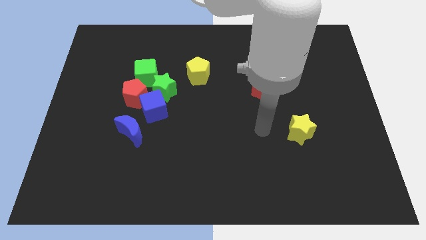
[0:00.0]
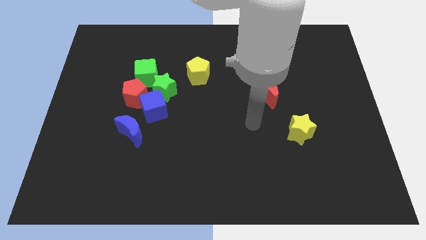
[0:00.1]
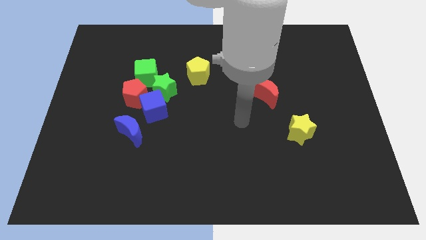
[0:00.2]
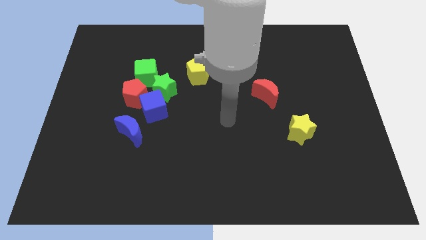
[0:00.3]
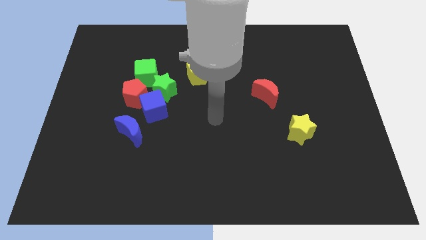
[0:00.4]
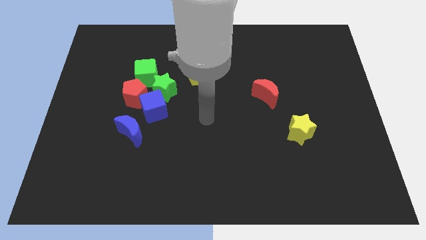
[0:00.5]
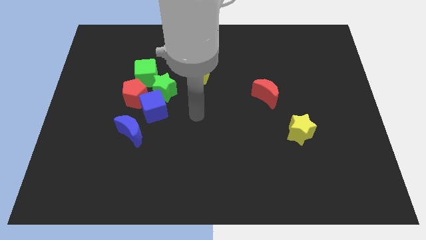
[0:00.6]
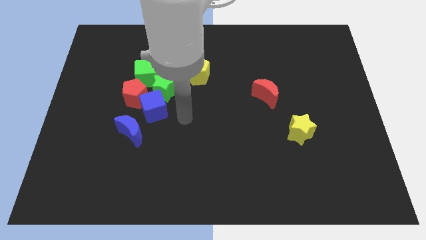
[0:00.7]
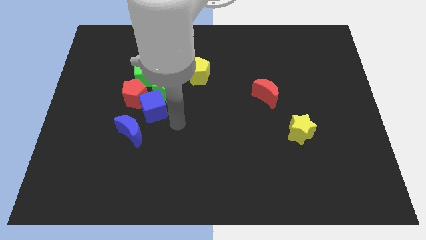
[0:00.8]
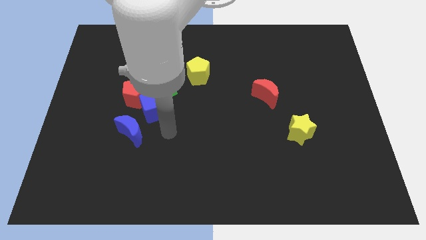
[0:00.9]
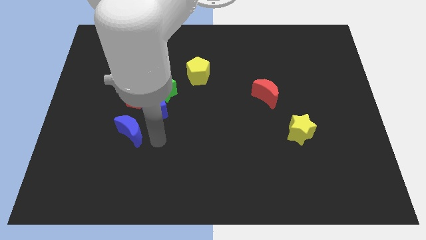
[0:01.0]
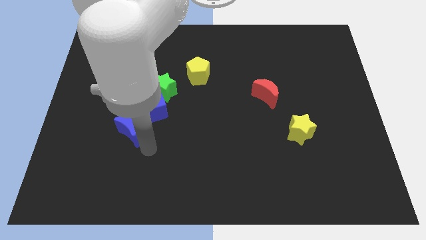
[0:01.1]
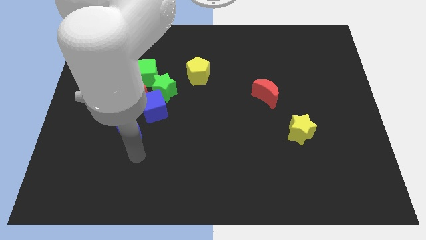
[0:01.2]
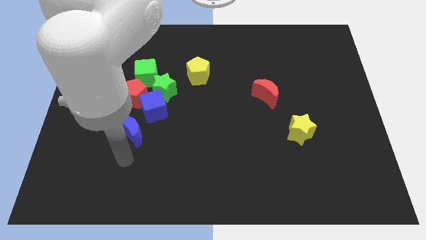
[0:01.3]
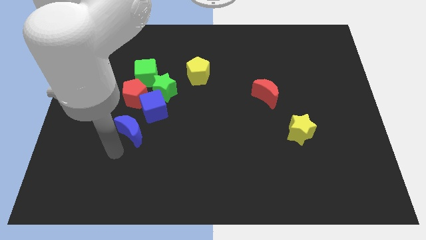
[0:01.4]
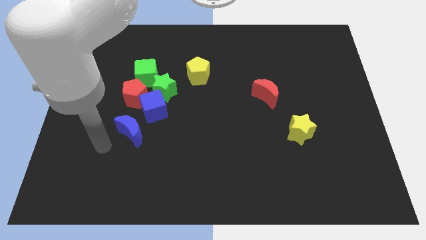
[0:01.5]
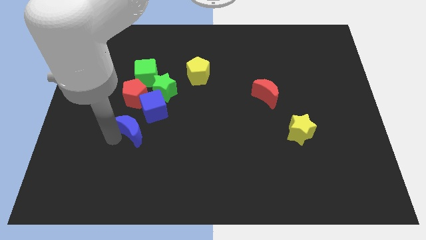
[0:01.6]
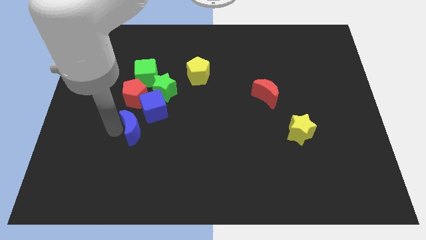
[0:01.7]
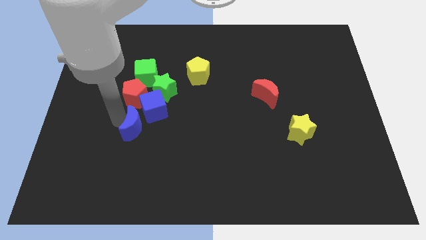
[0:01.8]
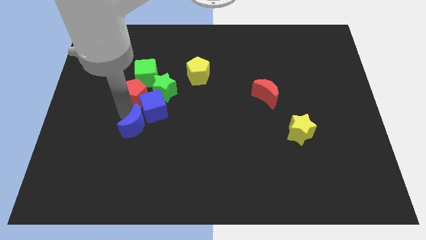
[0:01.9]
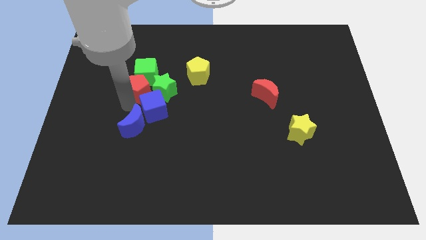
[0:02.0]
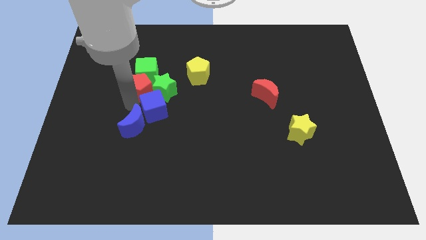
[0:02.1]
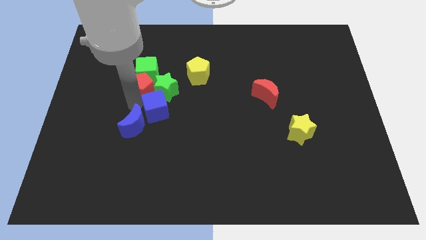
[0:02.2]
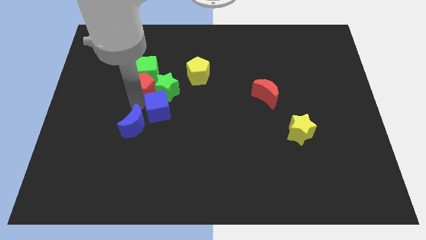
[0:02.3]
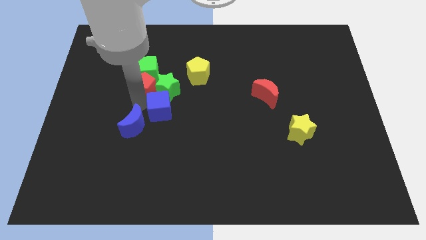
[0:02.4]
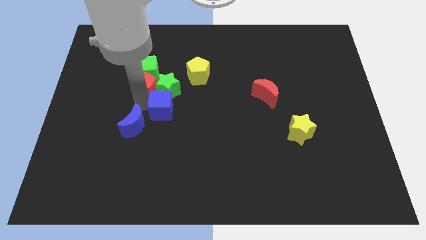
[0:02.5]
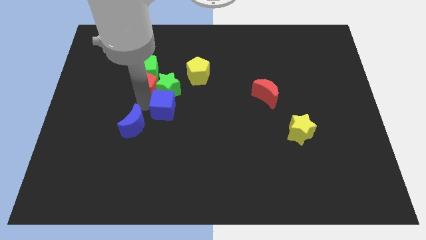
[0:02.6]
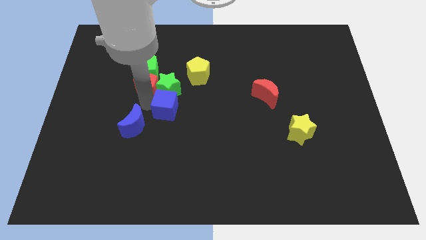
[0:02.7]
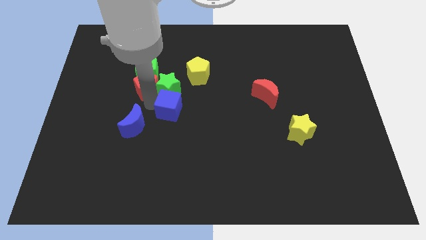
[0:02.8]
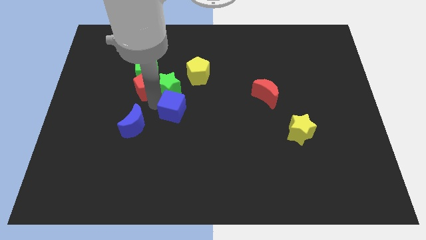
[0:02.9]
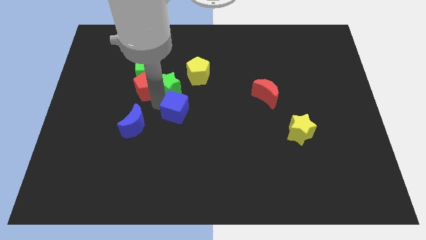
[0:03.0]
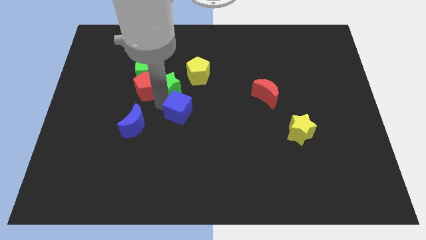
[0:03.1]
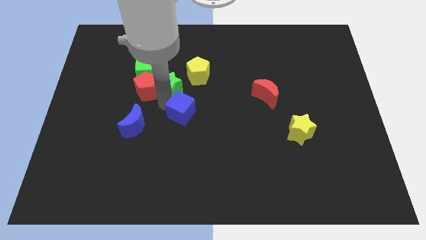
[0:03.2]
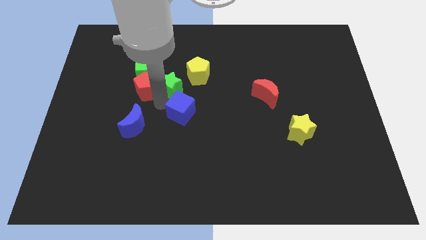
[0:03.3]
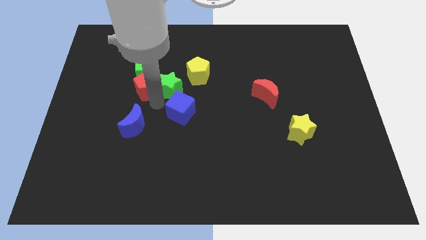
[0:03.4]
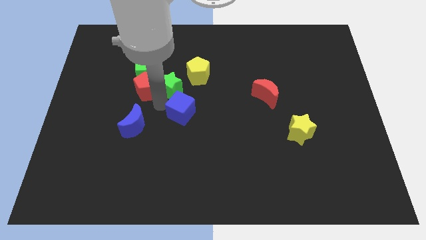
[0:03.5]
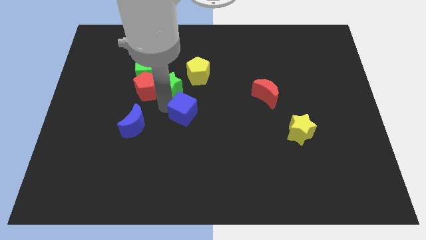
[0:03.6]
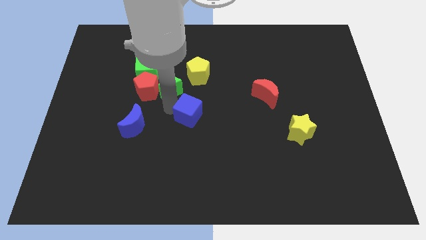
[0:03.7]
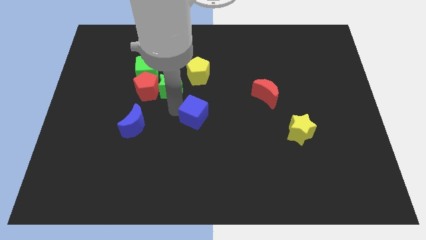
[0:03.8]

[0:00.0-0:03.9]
move the blue cube away from the red pentagon, green star, and blue moon

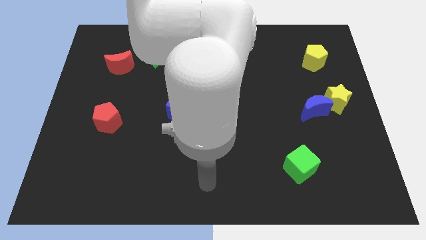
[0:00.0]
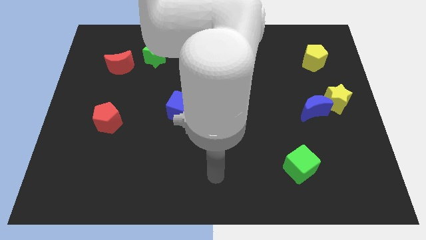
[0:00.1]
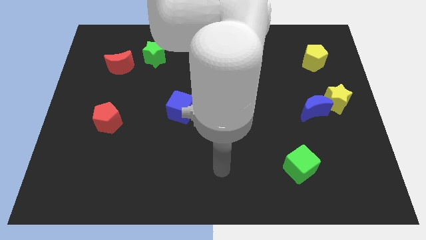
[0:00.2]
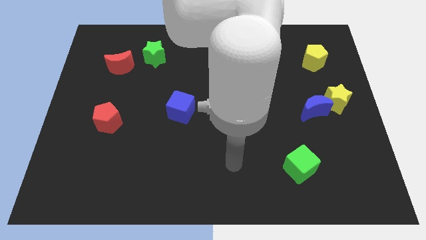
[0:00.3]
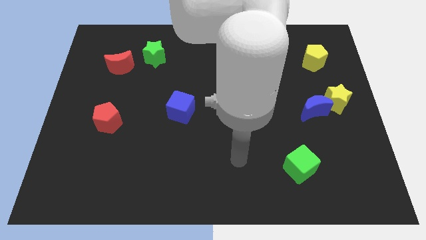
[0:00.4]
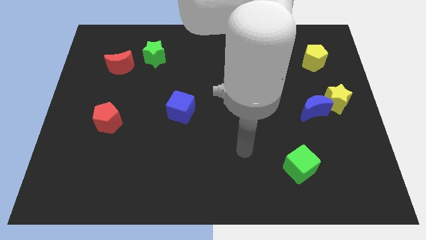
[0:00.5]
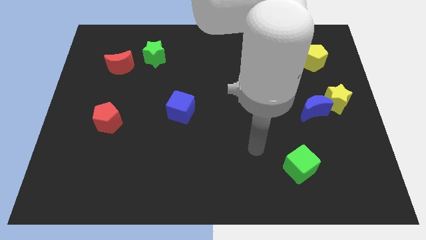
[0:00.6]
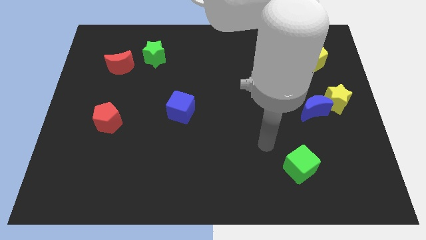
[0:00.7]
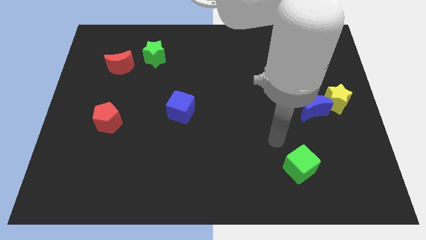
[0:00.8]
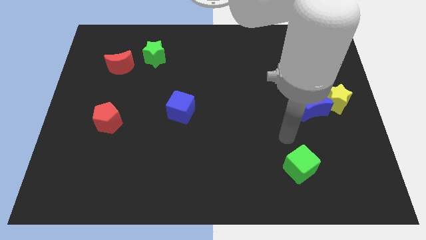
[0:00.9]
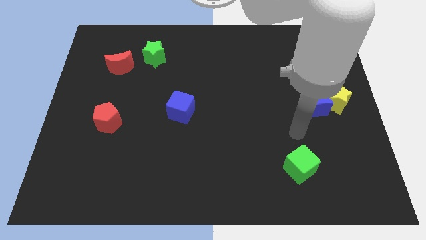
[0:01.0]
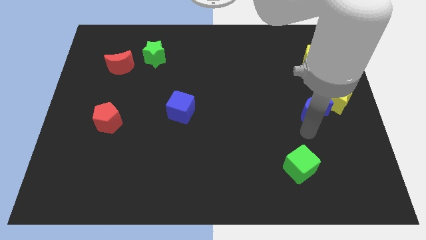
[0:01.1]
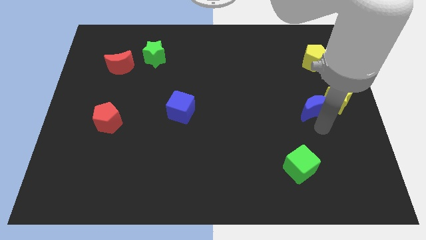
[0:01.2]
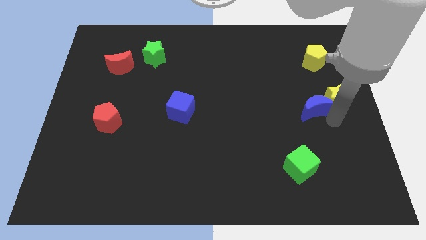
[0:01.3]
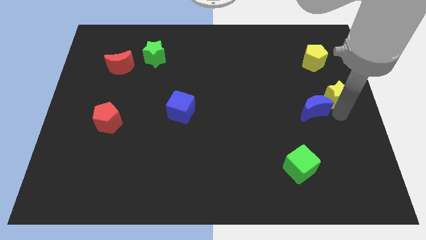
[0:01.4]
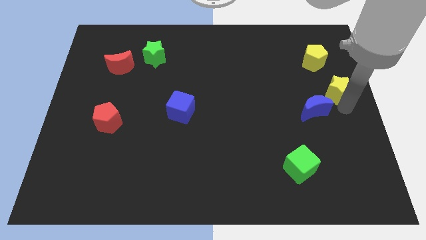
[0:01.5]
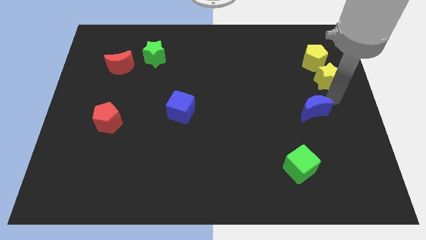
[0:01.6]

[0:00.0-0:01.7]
separate the blue moon from the yellow star

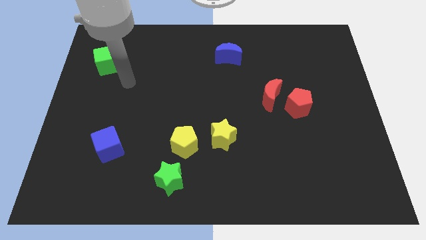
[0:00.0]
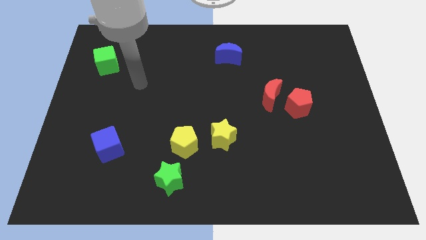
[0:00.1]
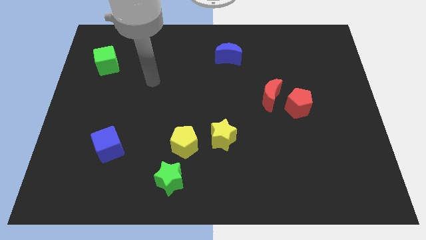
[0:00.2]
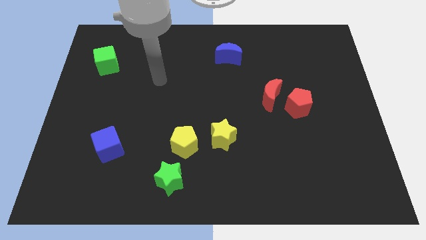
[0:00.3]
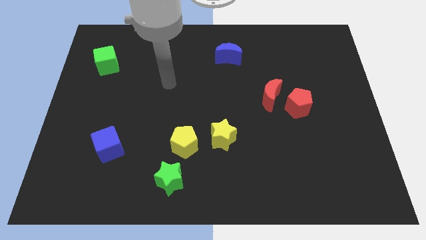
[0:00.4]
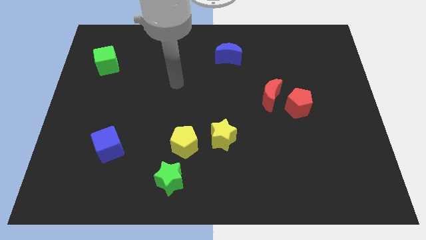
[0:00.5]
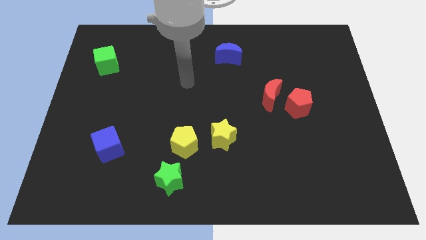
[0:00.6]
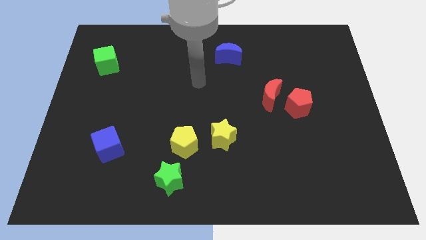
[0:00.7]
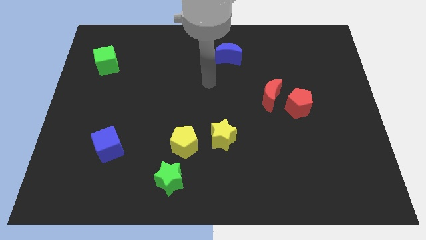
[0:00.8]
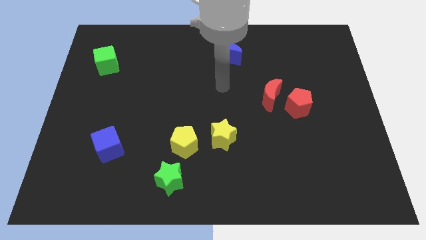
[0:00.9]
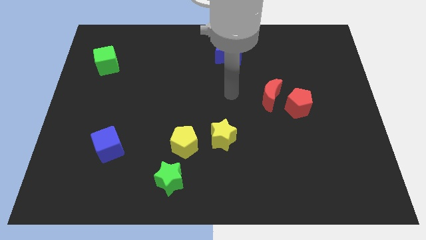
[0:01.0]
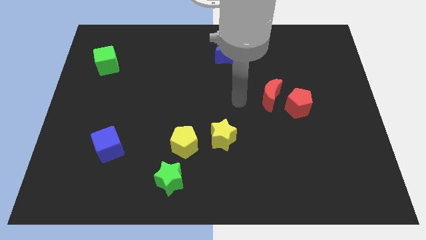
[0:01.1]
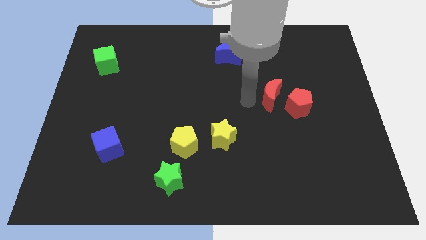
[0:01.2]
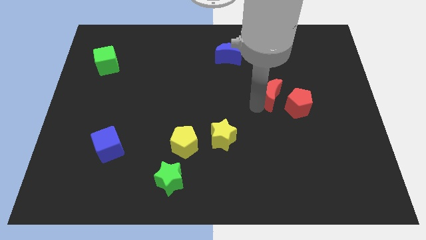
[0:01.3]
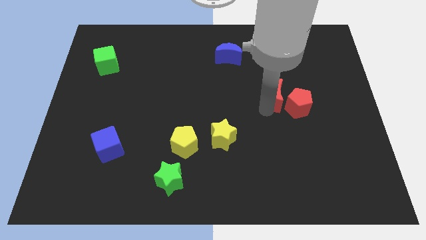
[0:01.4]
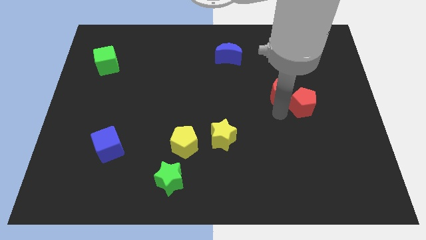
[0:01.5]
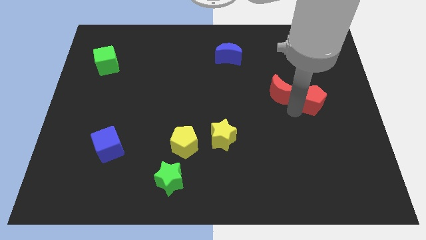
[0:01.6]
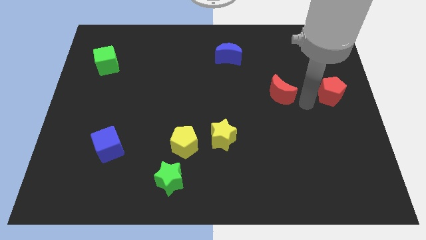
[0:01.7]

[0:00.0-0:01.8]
pull the red moon apart from the red pentagon

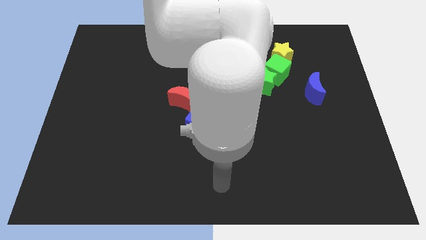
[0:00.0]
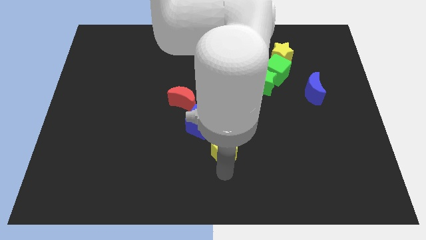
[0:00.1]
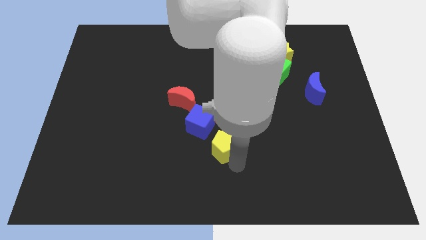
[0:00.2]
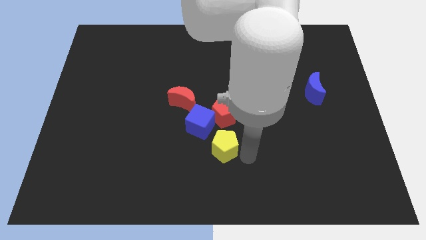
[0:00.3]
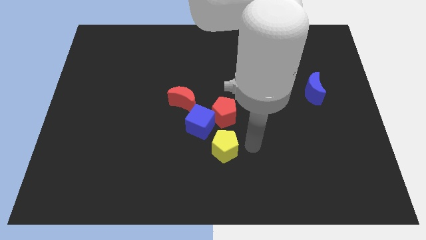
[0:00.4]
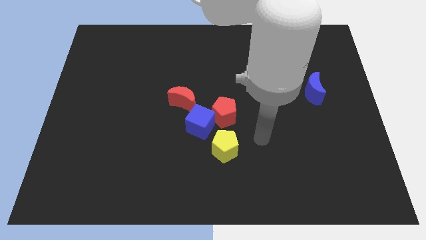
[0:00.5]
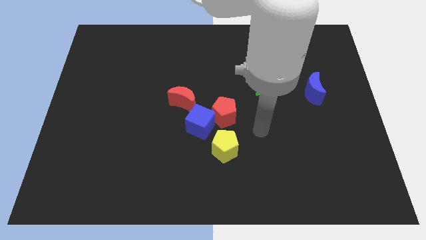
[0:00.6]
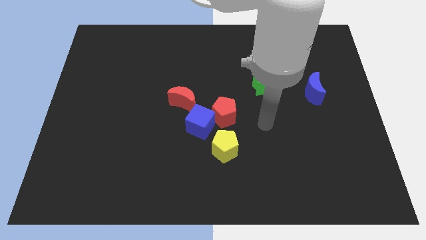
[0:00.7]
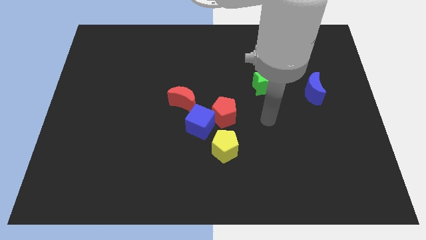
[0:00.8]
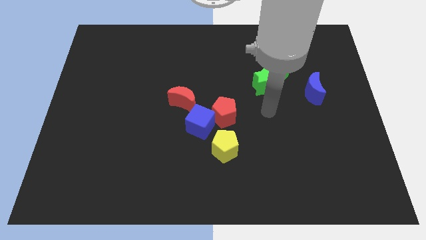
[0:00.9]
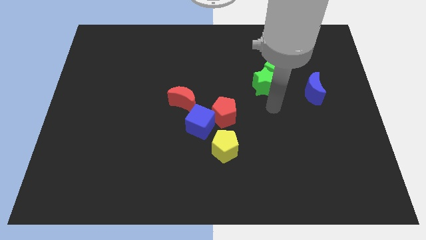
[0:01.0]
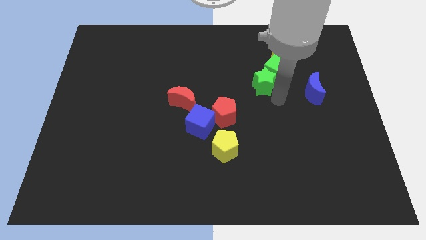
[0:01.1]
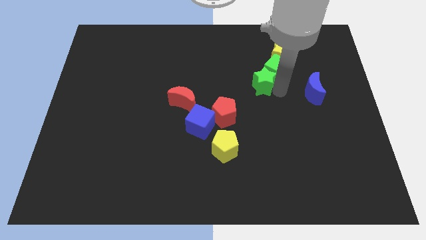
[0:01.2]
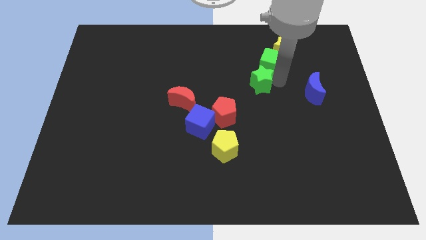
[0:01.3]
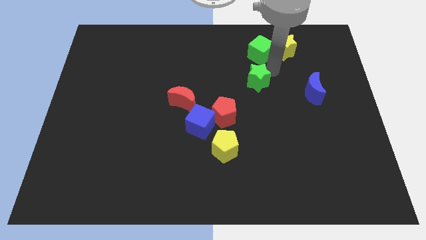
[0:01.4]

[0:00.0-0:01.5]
pull the green star apart from the green cube

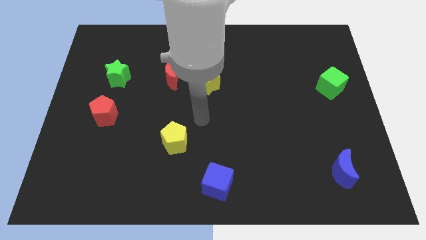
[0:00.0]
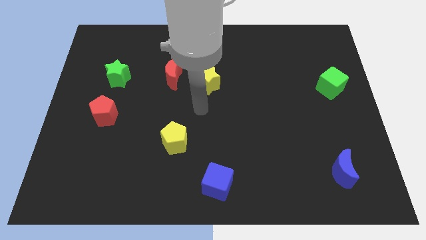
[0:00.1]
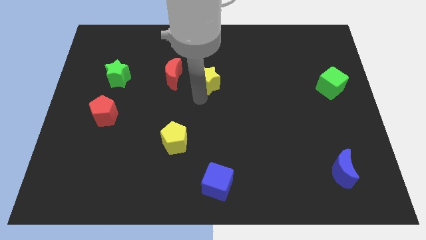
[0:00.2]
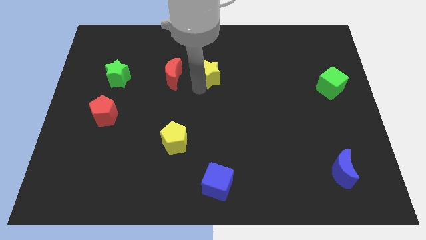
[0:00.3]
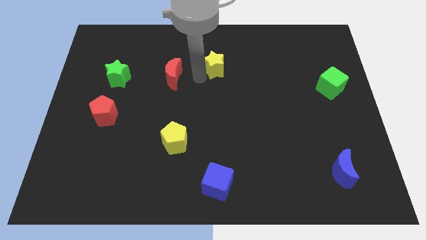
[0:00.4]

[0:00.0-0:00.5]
separate the red moon from the yellow star

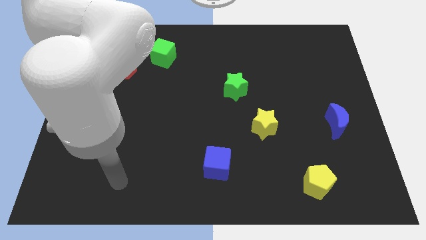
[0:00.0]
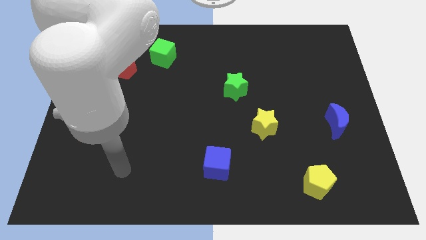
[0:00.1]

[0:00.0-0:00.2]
pull the red pentagon apart from the green cube
